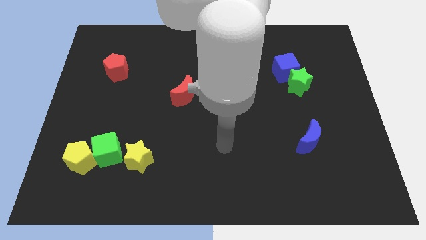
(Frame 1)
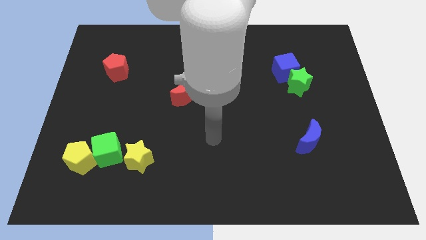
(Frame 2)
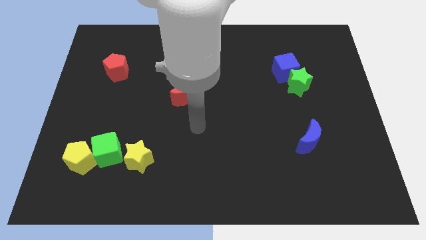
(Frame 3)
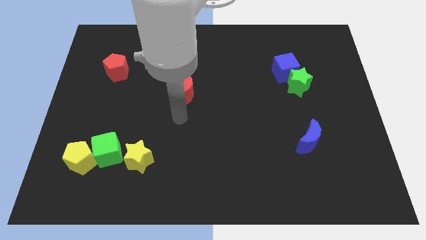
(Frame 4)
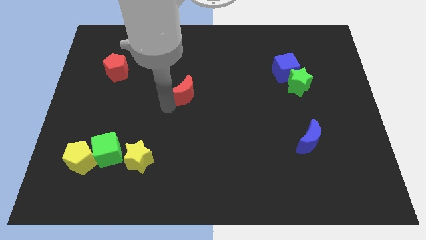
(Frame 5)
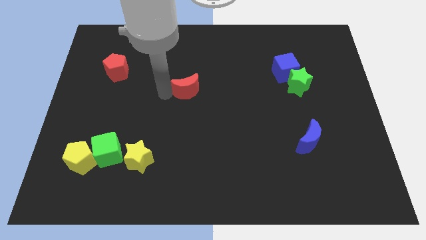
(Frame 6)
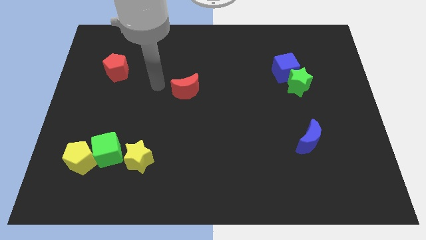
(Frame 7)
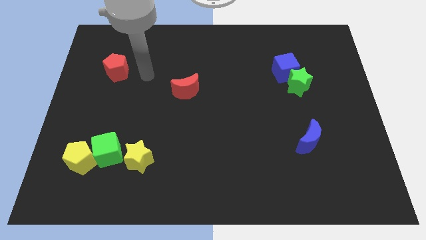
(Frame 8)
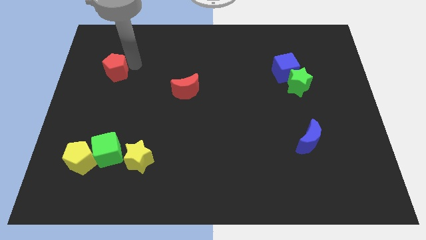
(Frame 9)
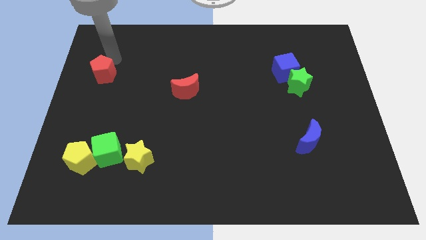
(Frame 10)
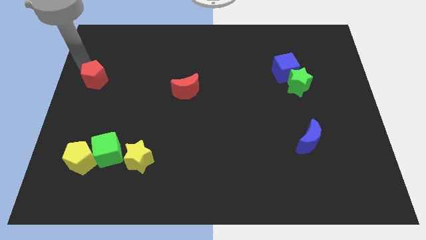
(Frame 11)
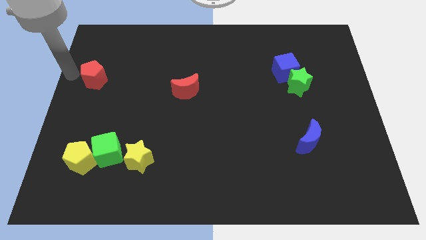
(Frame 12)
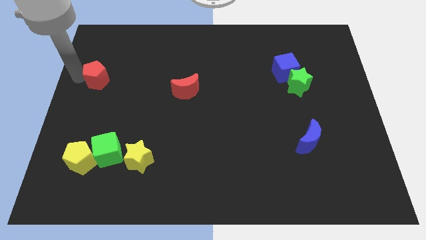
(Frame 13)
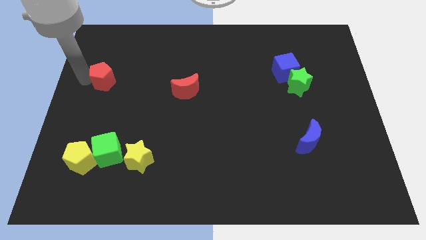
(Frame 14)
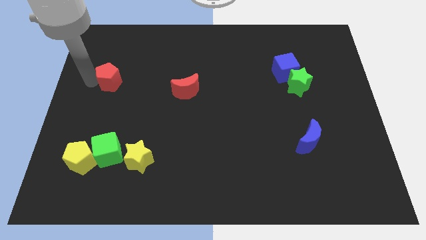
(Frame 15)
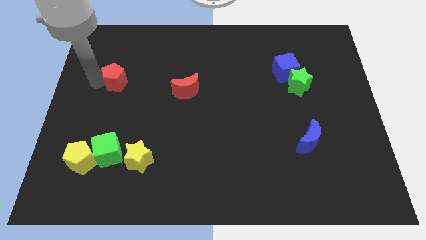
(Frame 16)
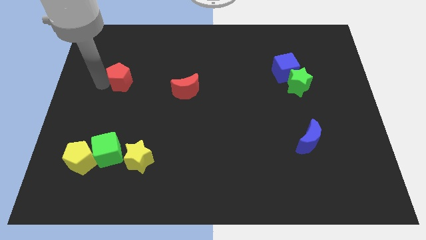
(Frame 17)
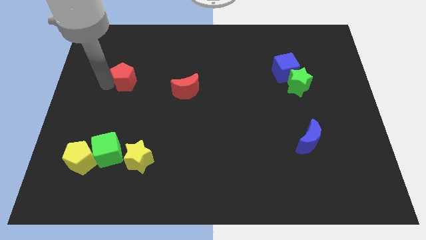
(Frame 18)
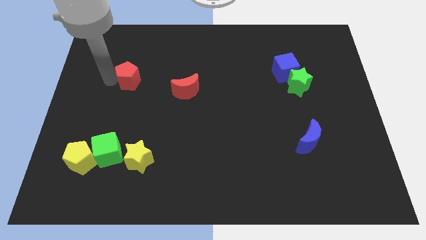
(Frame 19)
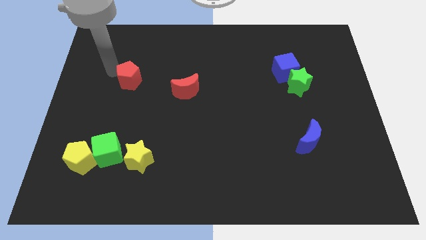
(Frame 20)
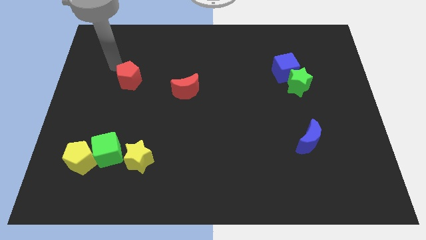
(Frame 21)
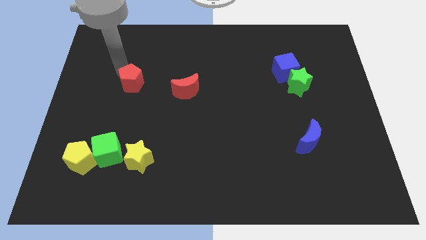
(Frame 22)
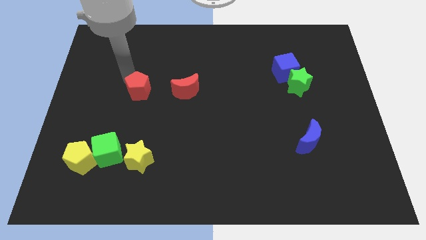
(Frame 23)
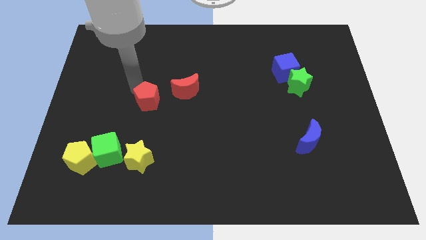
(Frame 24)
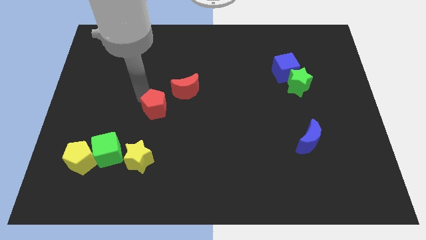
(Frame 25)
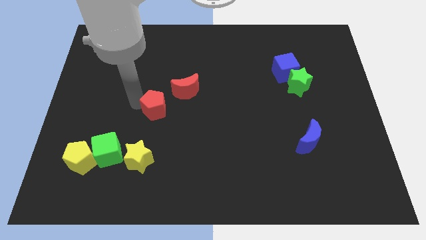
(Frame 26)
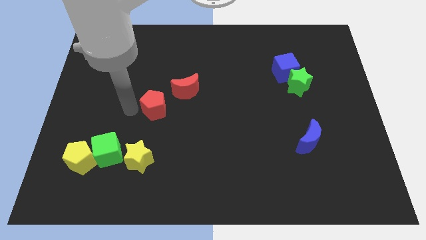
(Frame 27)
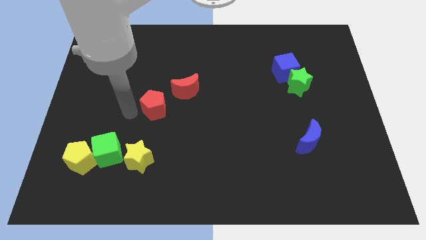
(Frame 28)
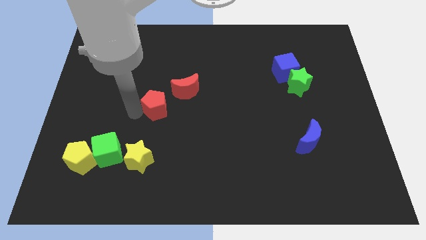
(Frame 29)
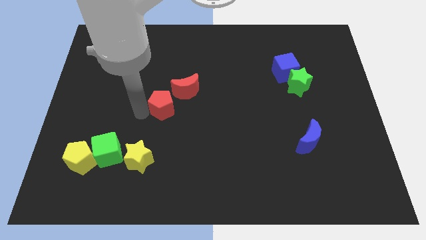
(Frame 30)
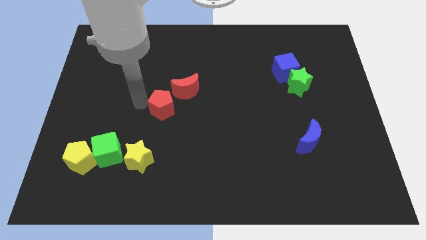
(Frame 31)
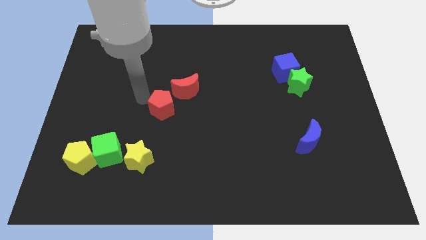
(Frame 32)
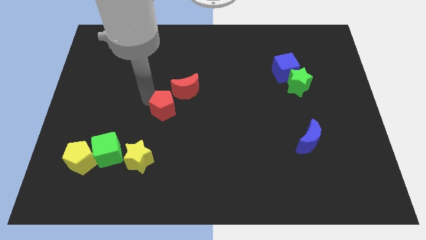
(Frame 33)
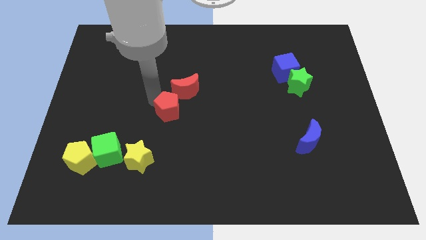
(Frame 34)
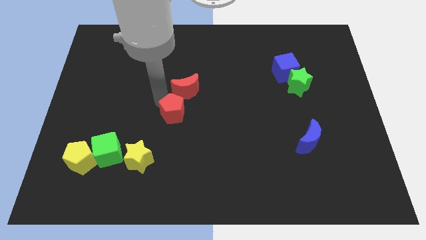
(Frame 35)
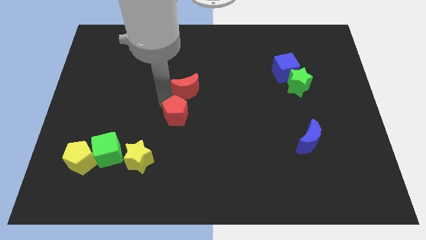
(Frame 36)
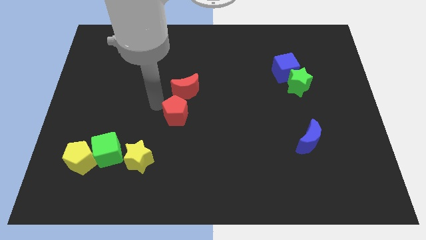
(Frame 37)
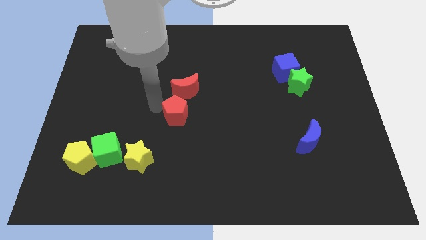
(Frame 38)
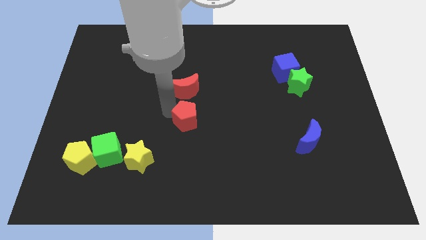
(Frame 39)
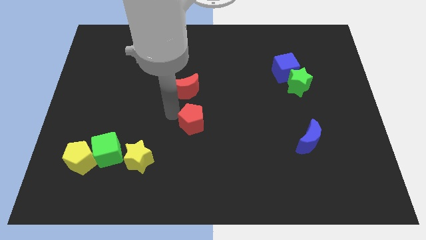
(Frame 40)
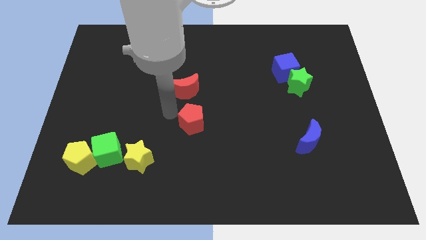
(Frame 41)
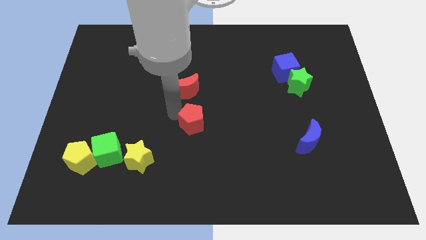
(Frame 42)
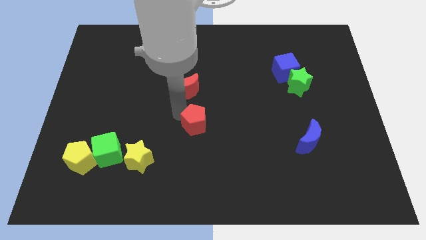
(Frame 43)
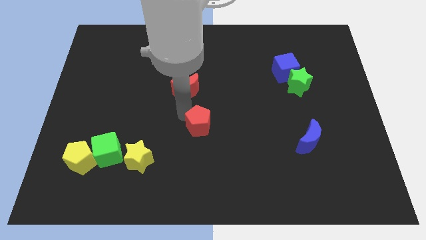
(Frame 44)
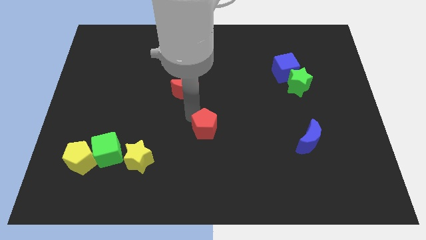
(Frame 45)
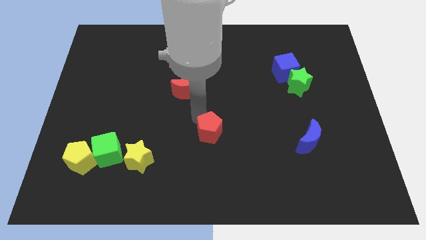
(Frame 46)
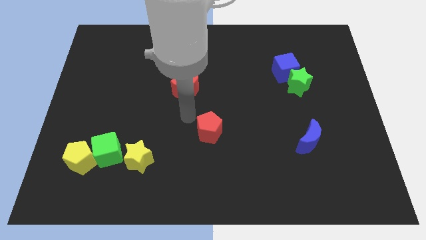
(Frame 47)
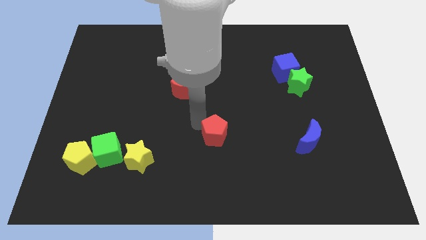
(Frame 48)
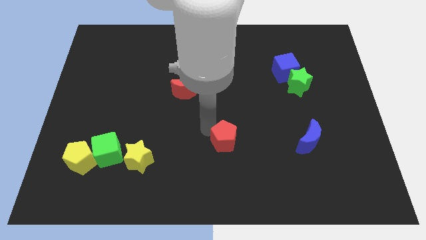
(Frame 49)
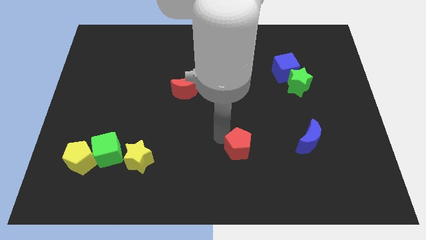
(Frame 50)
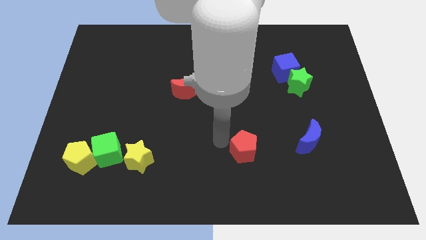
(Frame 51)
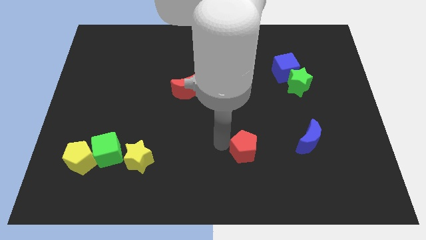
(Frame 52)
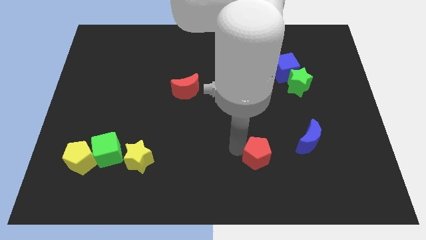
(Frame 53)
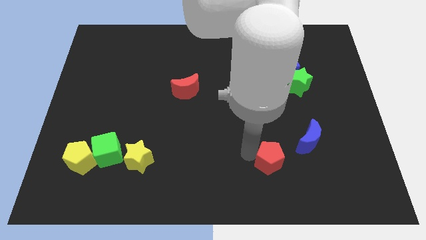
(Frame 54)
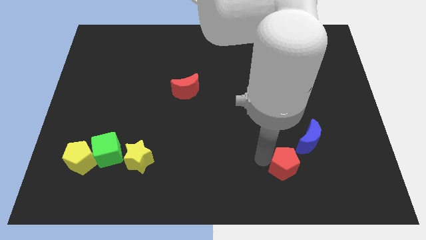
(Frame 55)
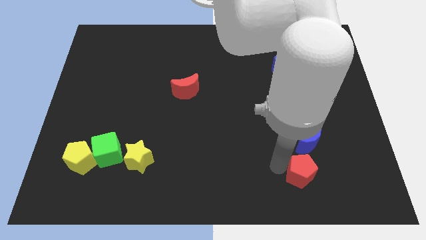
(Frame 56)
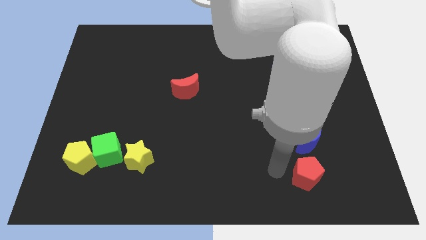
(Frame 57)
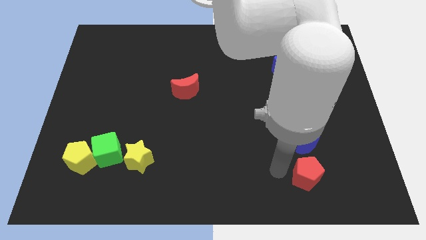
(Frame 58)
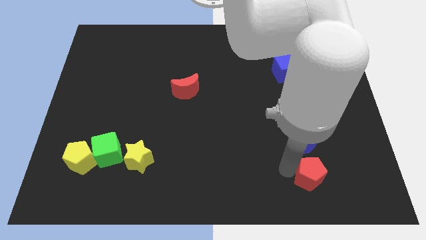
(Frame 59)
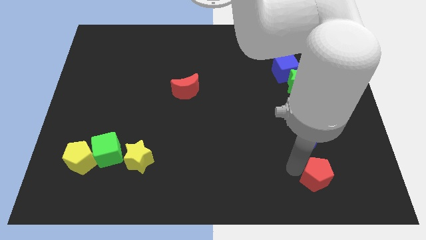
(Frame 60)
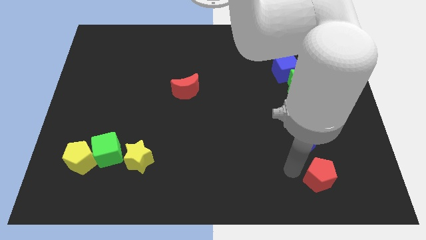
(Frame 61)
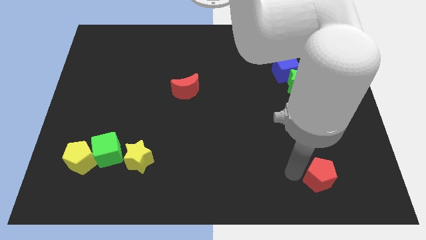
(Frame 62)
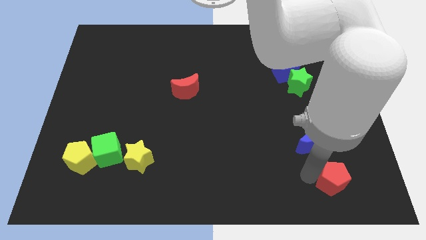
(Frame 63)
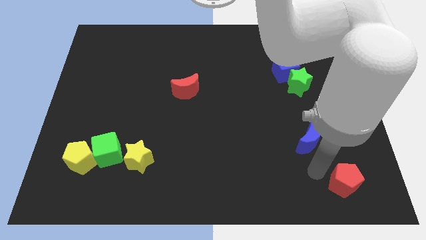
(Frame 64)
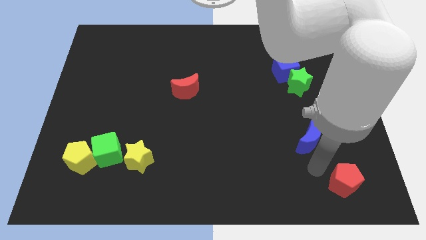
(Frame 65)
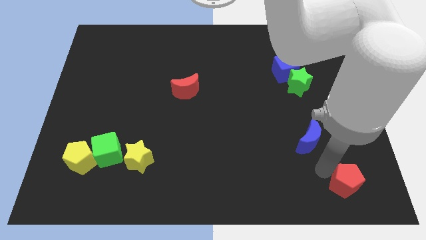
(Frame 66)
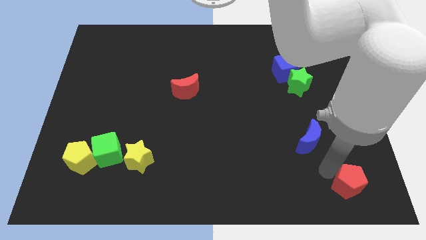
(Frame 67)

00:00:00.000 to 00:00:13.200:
push the red pentagon to the bottom right

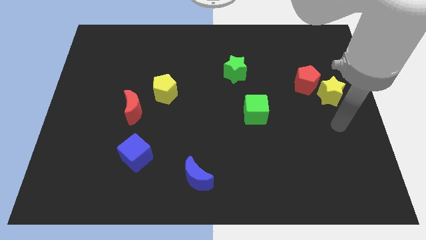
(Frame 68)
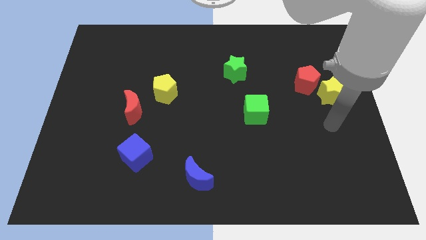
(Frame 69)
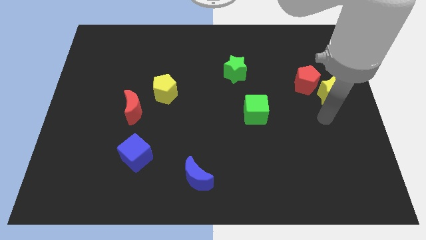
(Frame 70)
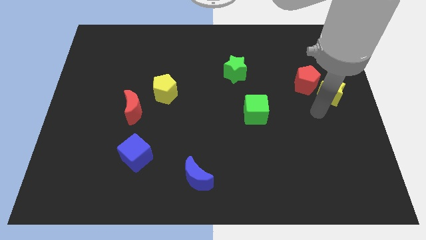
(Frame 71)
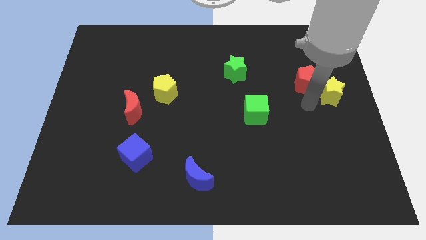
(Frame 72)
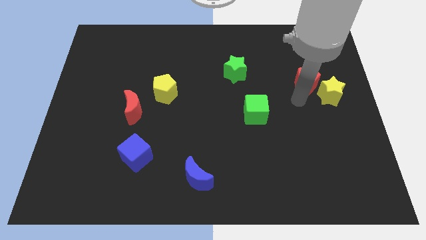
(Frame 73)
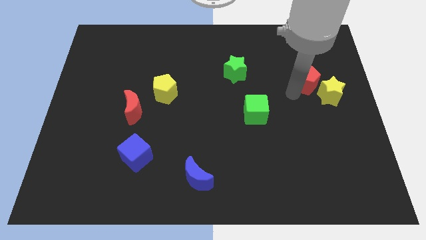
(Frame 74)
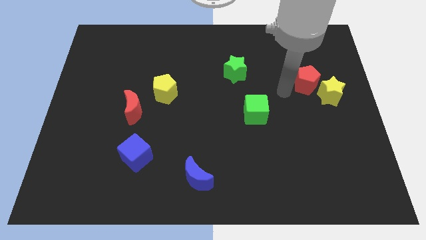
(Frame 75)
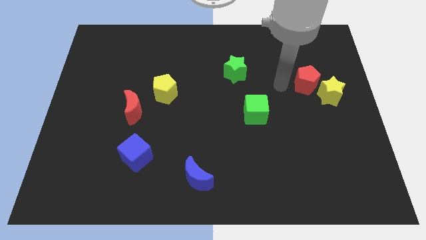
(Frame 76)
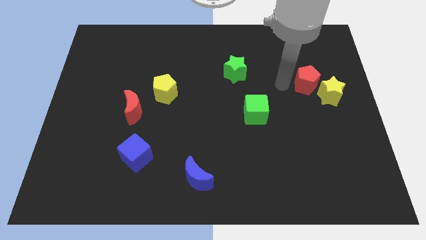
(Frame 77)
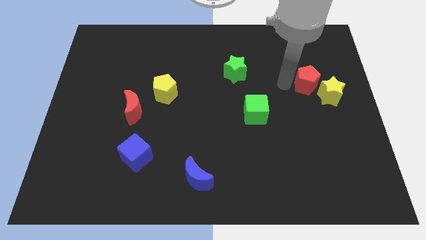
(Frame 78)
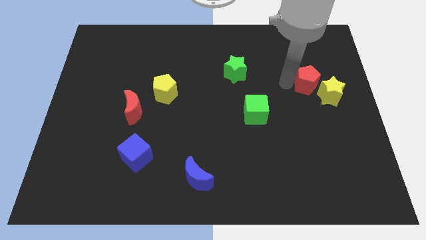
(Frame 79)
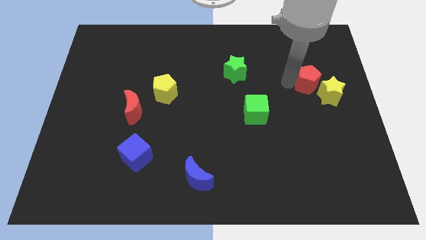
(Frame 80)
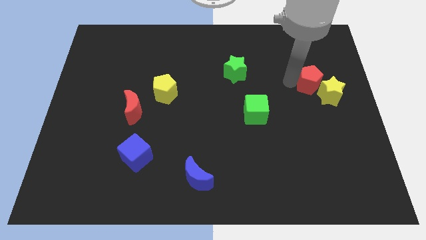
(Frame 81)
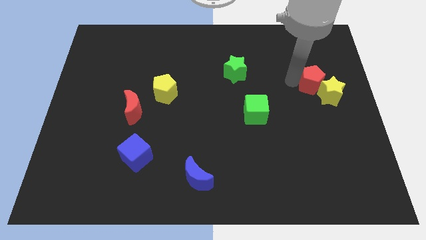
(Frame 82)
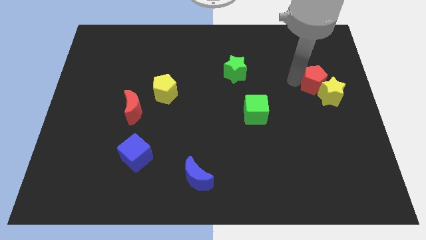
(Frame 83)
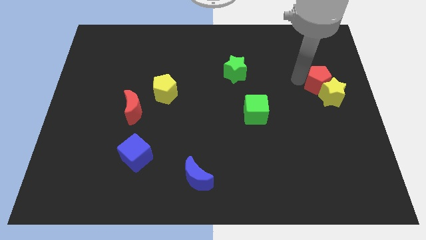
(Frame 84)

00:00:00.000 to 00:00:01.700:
move the red pentagon to the center right
